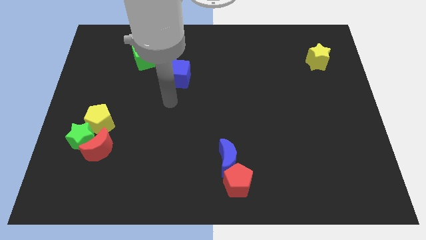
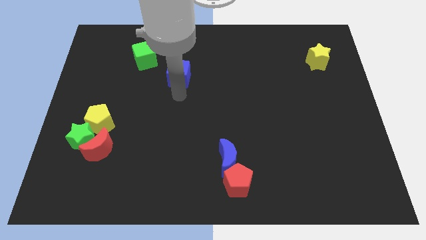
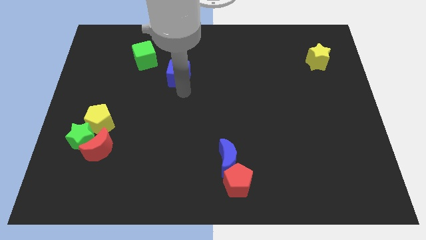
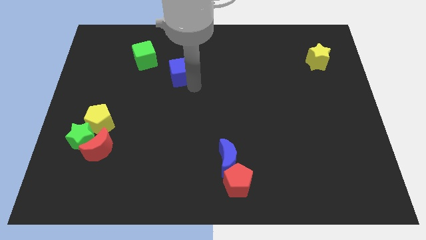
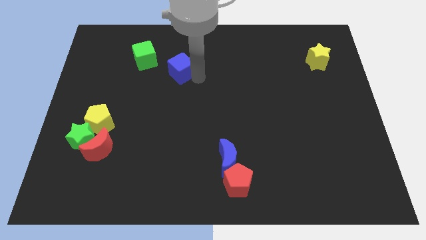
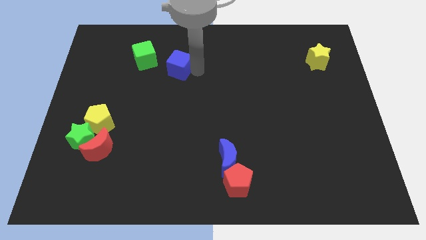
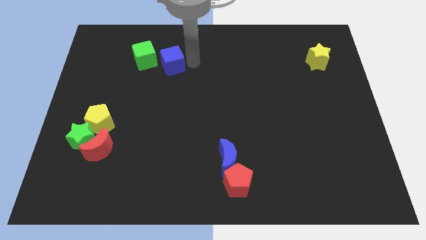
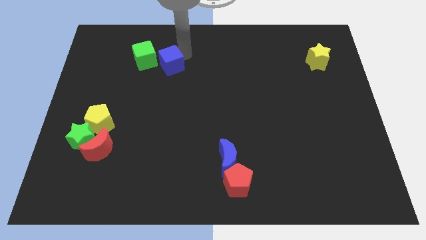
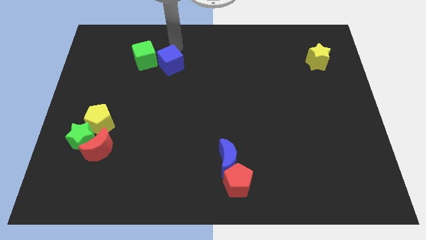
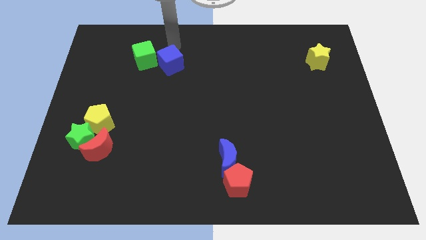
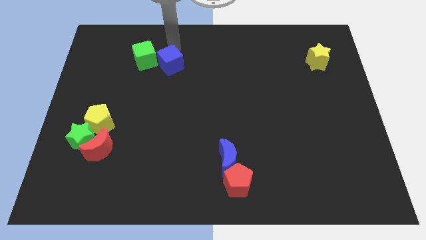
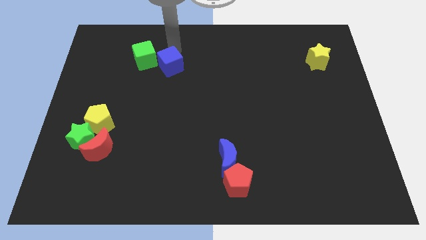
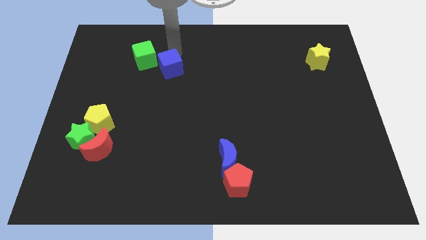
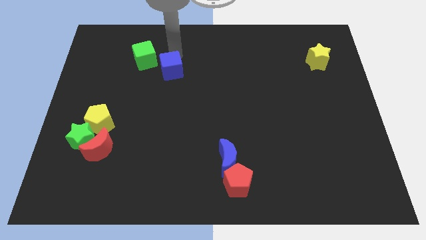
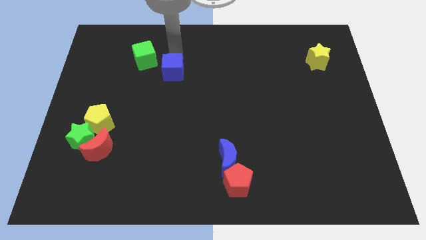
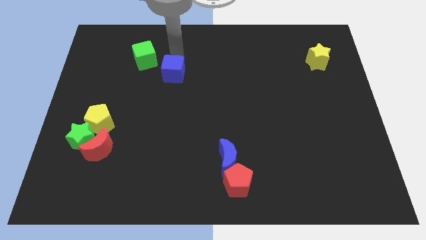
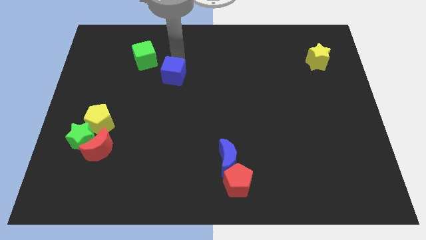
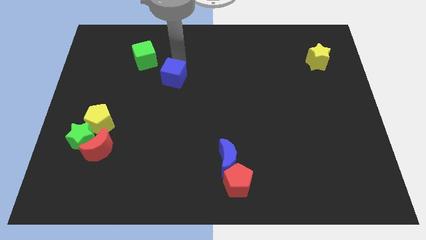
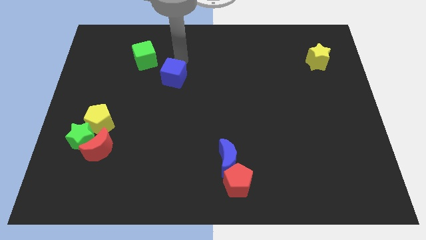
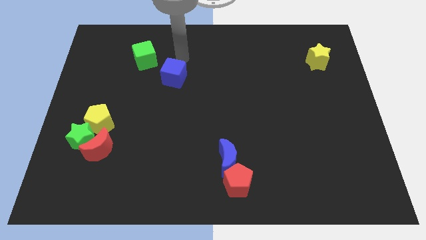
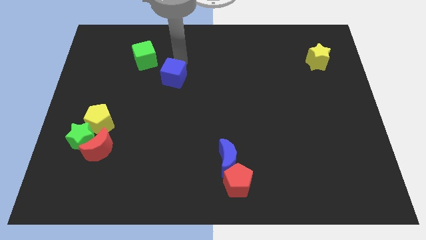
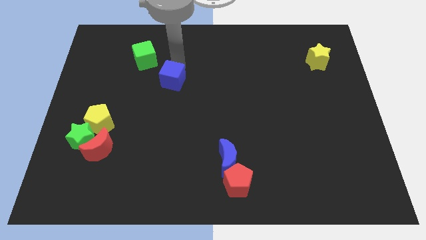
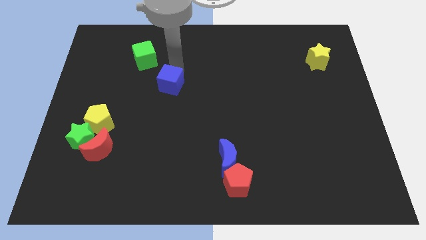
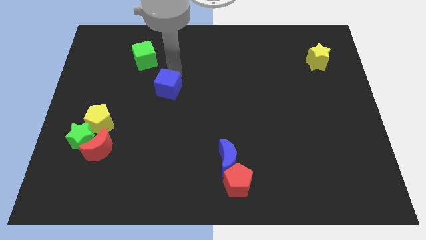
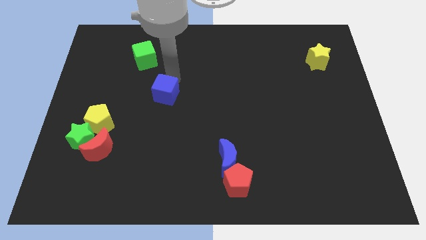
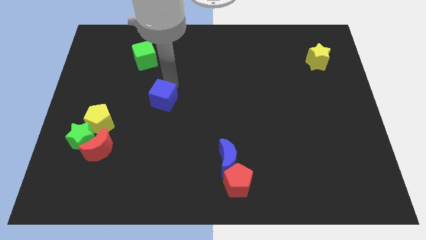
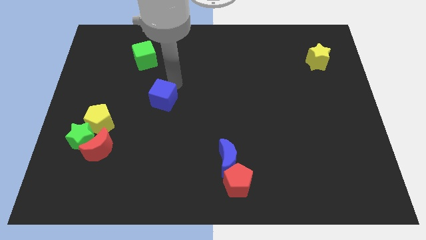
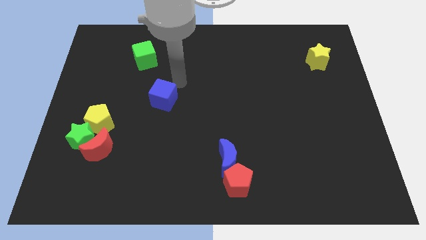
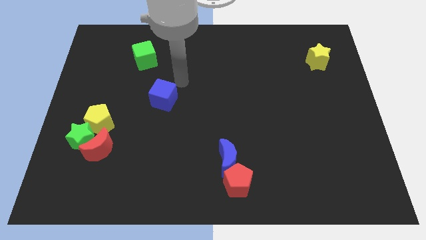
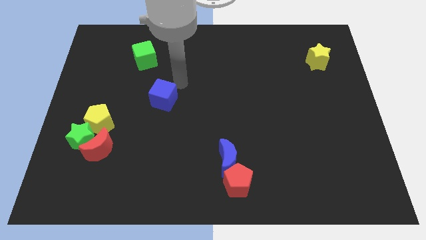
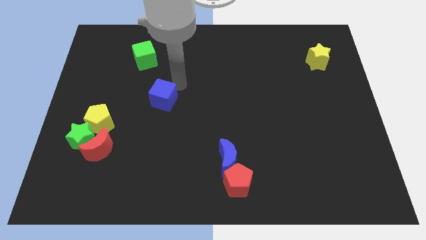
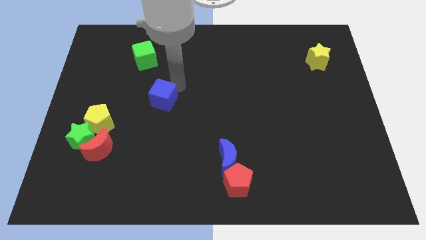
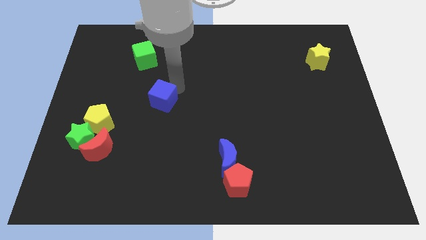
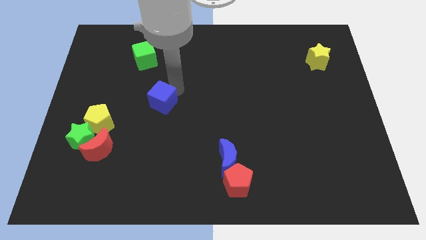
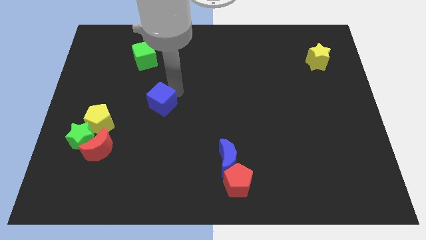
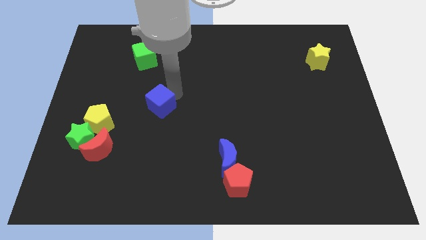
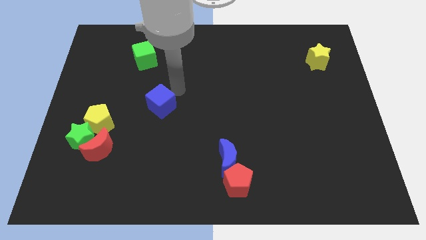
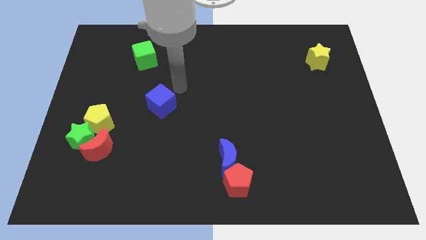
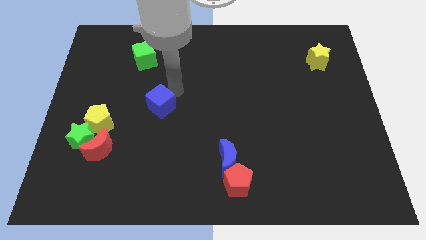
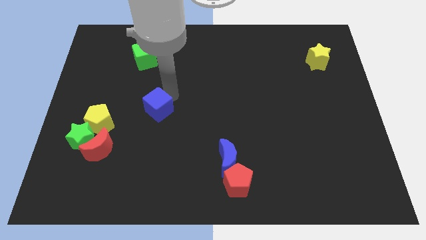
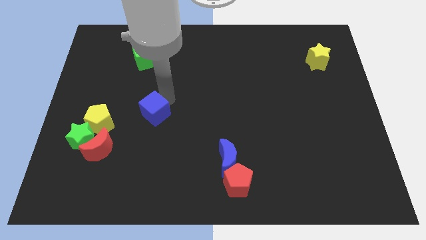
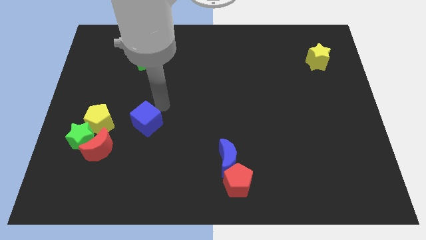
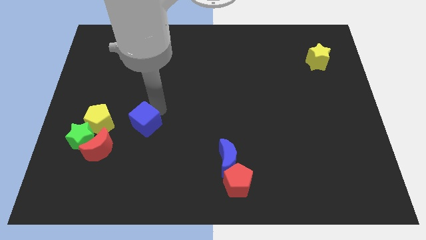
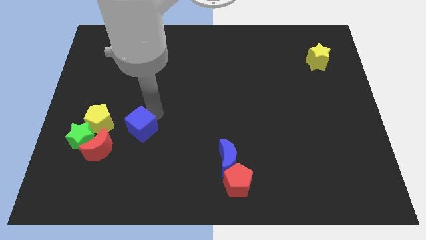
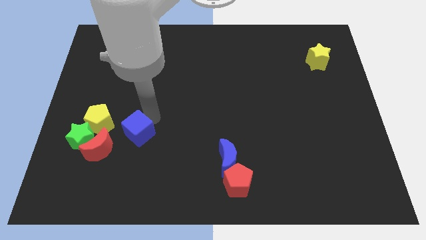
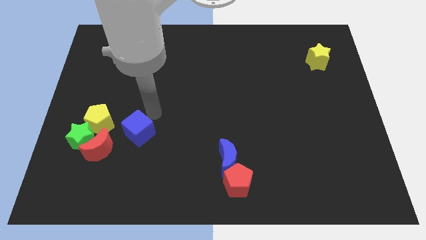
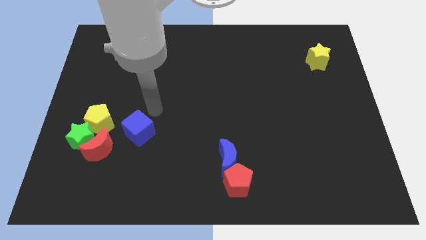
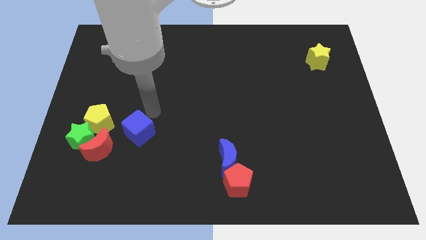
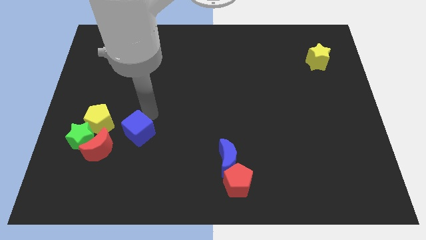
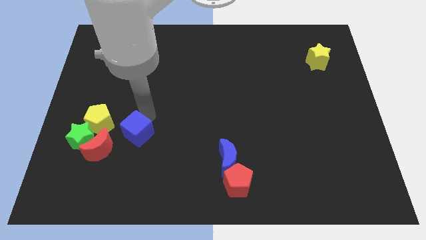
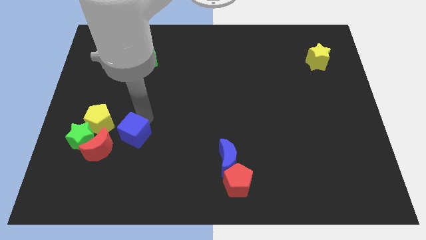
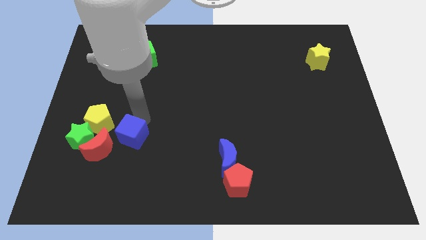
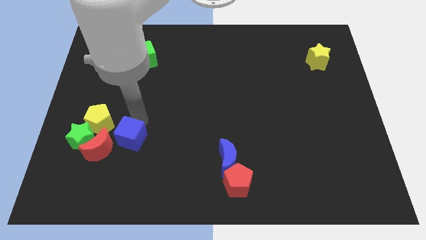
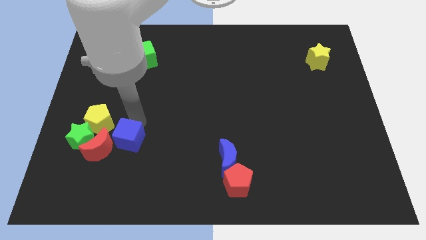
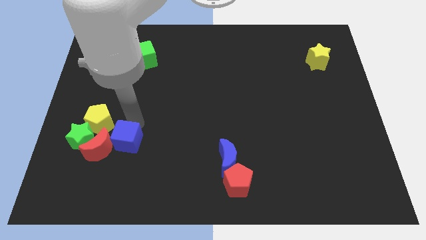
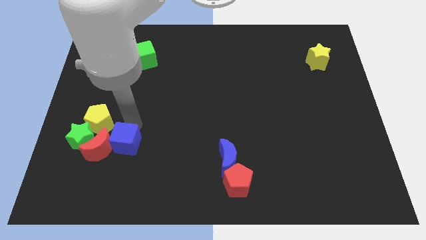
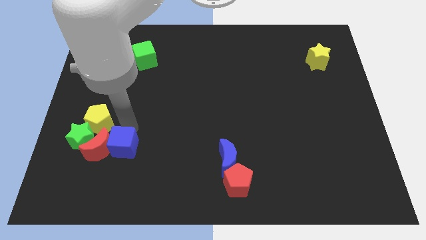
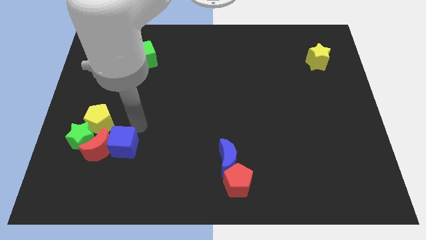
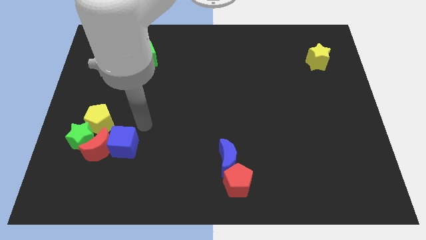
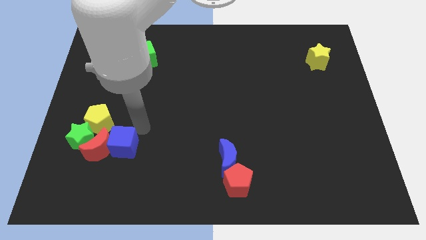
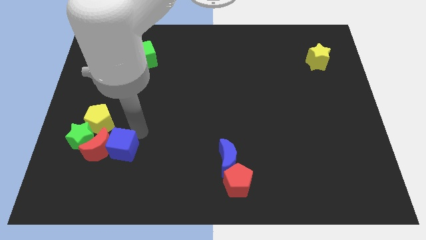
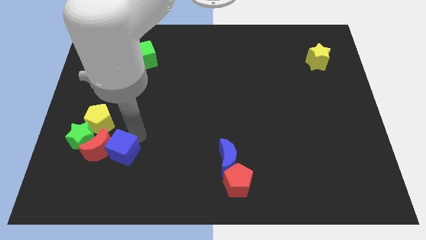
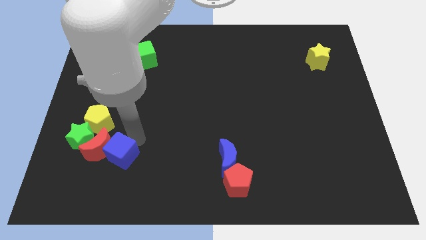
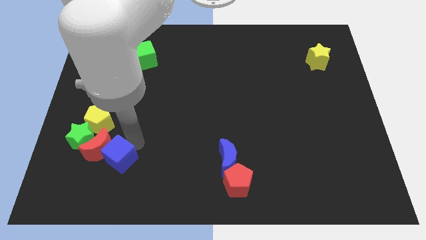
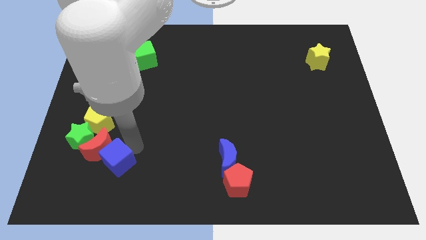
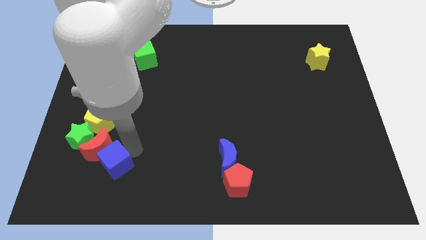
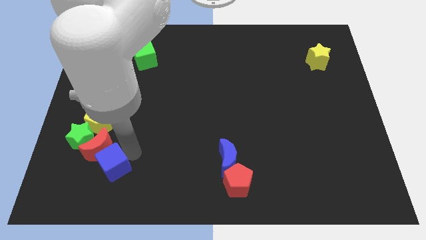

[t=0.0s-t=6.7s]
put the blue cube to the bottom of the yellow pentagon

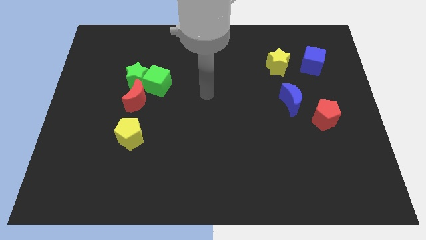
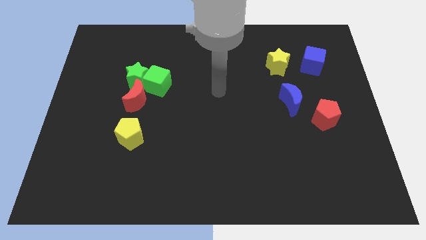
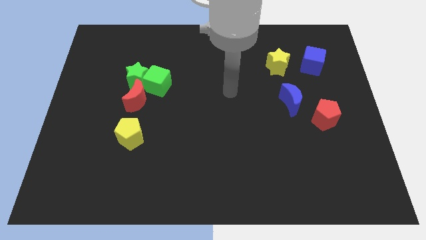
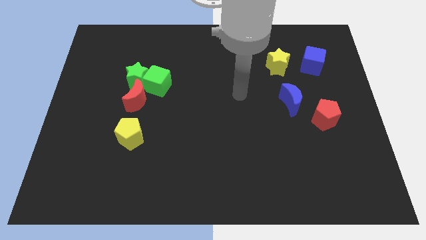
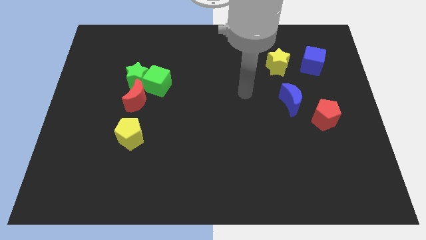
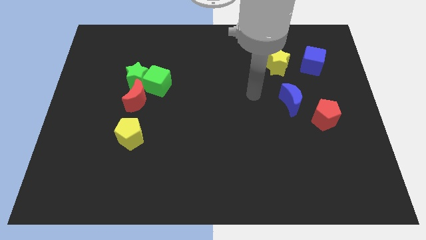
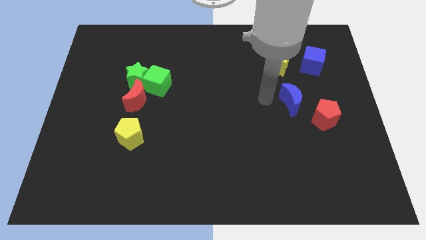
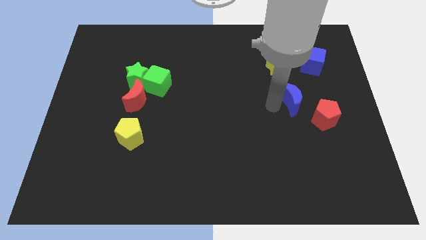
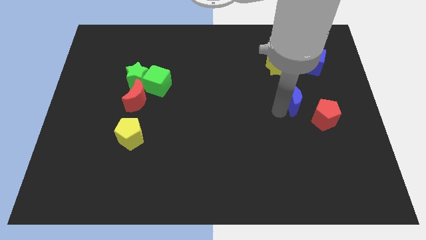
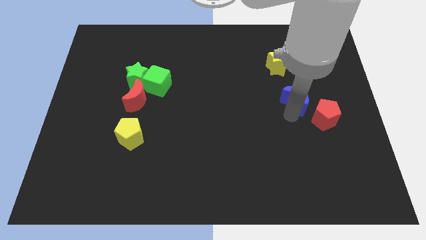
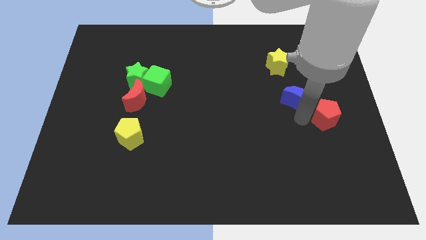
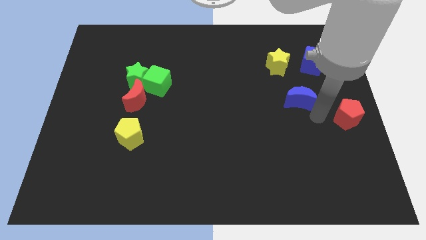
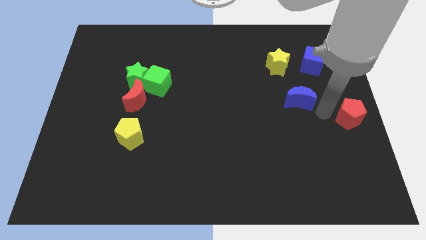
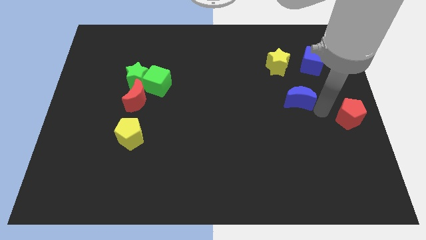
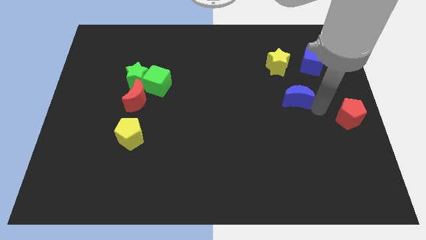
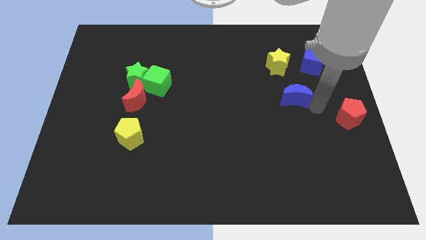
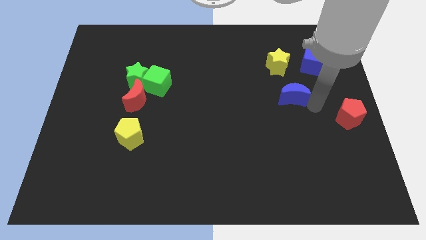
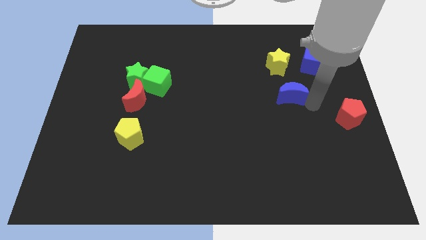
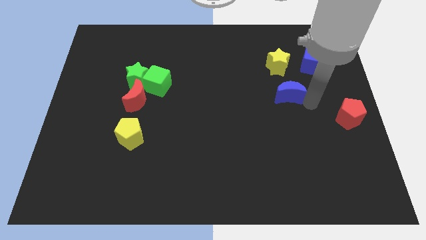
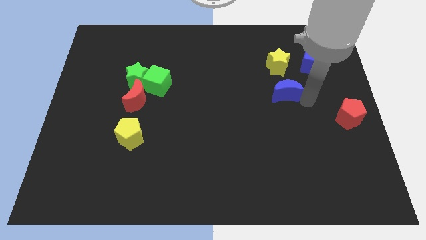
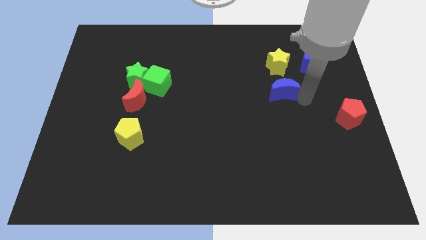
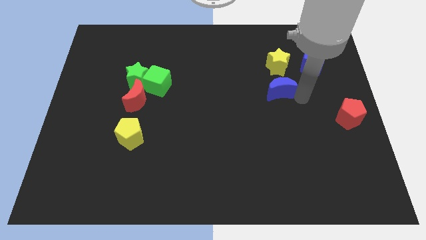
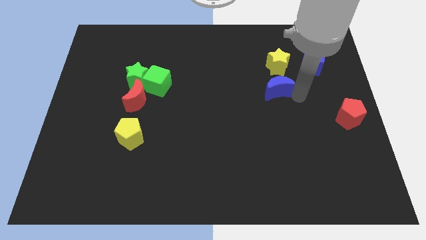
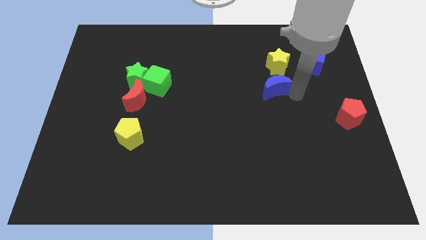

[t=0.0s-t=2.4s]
put the blue moon diagonally down and to the left of the yellow star
